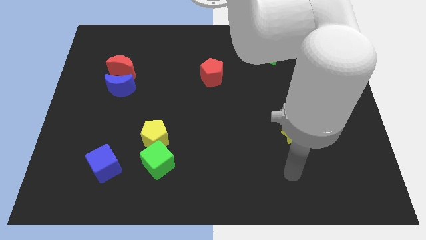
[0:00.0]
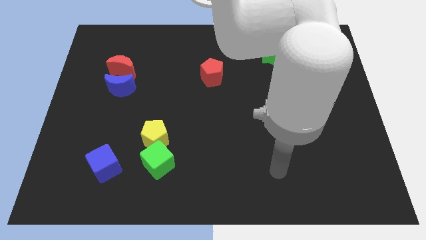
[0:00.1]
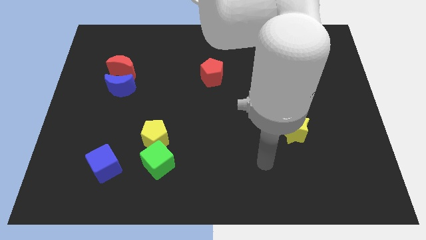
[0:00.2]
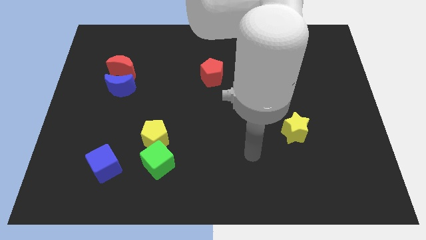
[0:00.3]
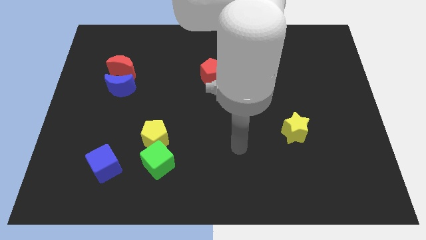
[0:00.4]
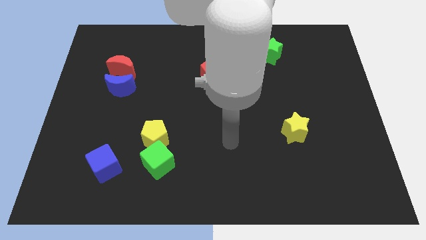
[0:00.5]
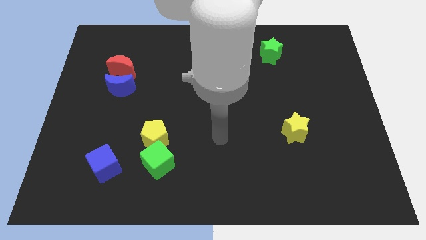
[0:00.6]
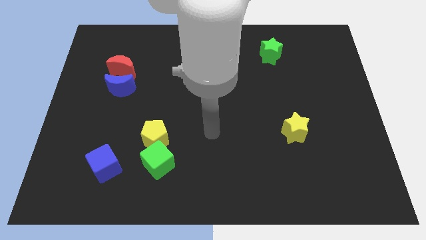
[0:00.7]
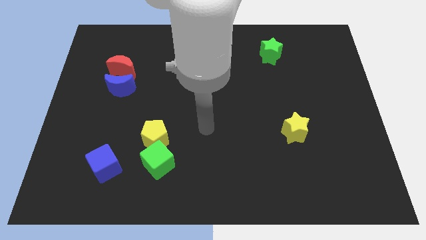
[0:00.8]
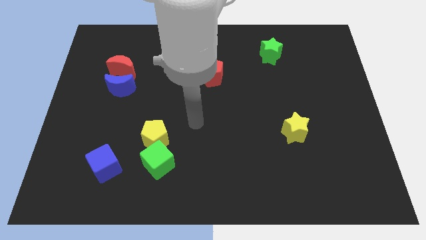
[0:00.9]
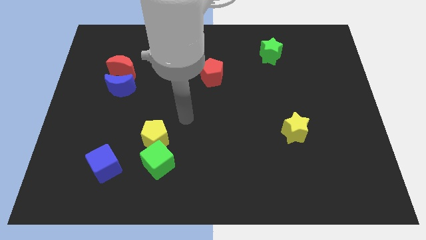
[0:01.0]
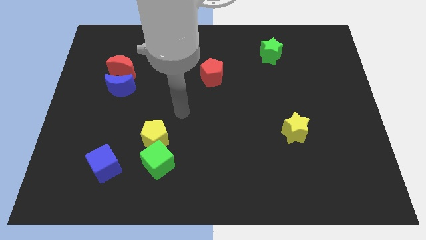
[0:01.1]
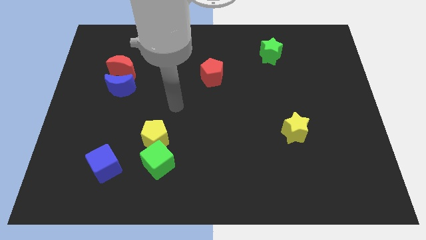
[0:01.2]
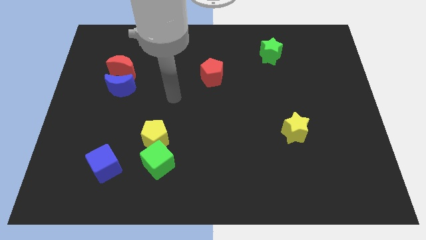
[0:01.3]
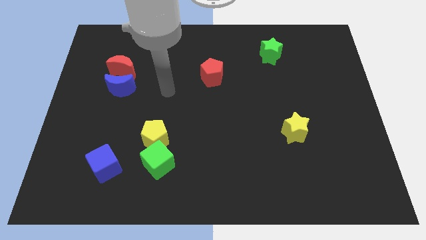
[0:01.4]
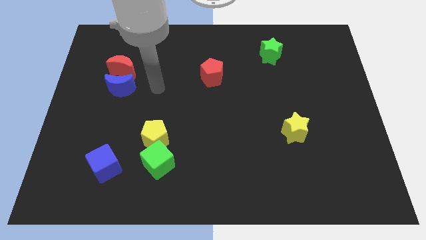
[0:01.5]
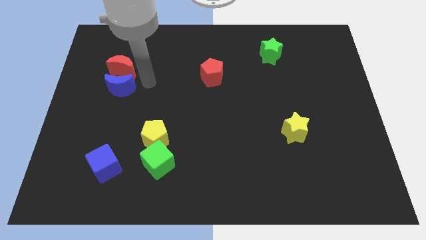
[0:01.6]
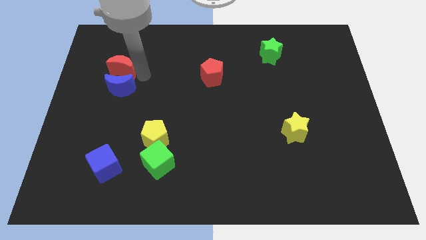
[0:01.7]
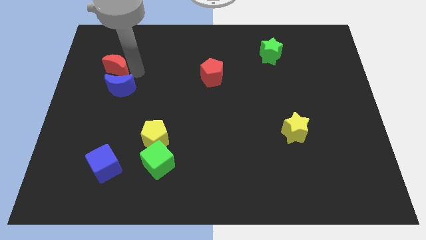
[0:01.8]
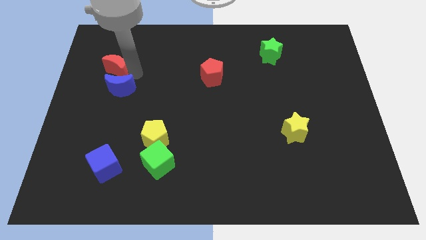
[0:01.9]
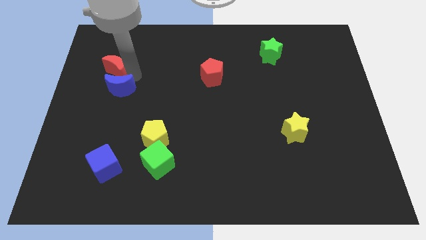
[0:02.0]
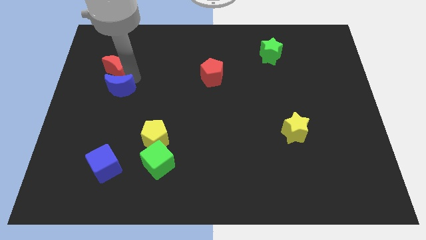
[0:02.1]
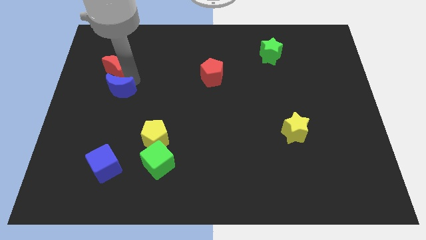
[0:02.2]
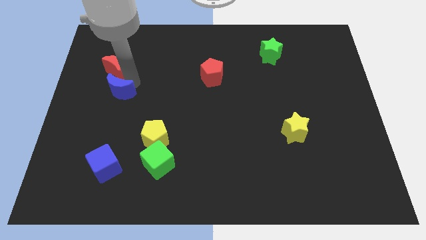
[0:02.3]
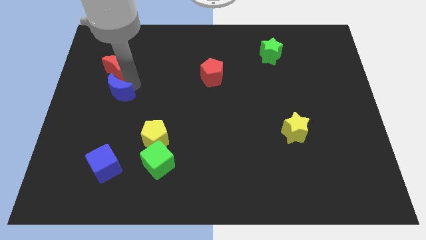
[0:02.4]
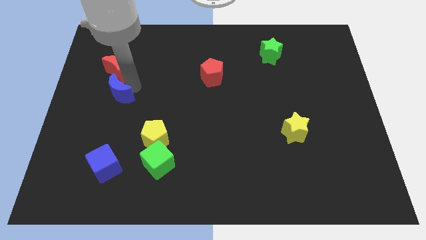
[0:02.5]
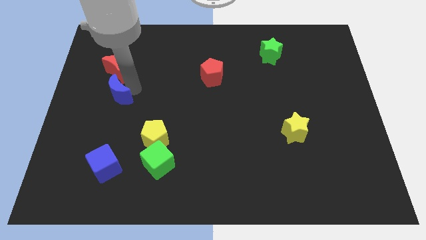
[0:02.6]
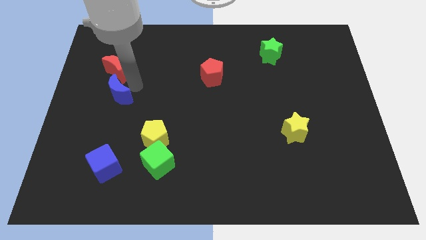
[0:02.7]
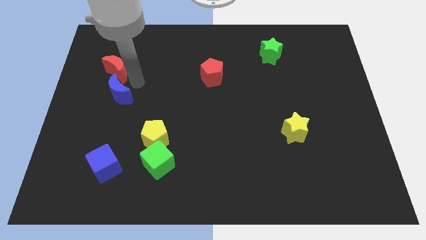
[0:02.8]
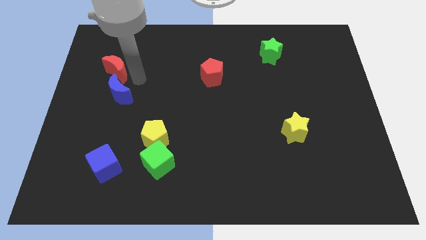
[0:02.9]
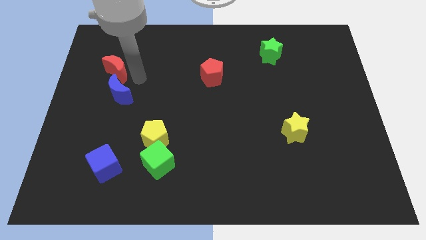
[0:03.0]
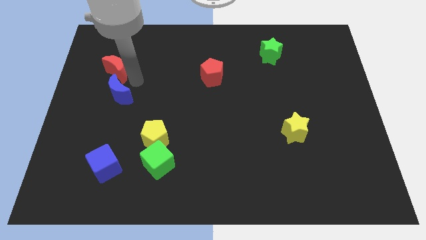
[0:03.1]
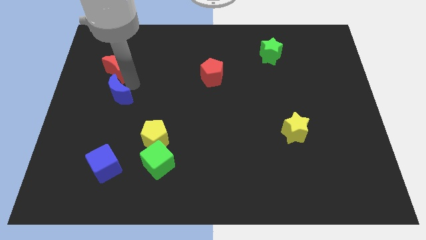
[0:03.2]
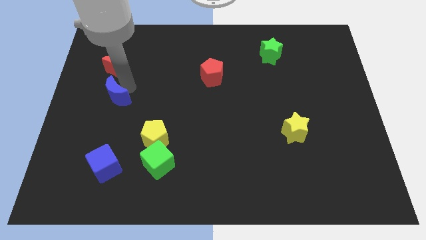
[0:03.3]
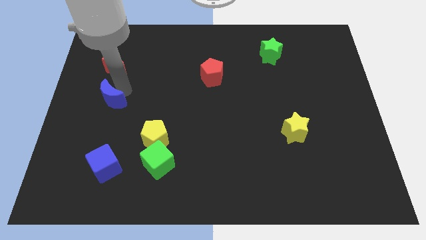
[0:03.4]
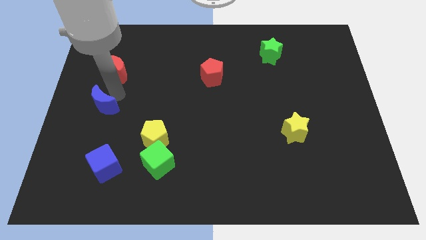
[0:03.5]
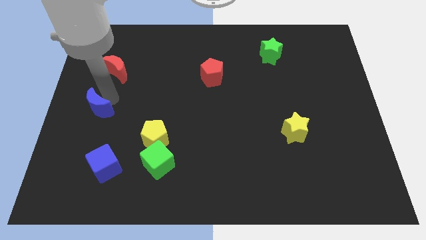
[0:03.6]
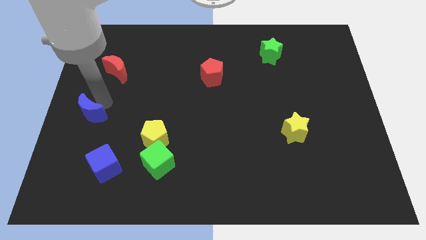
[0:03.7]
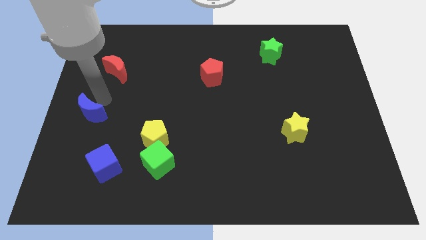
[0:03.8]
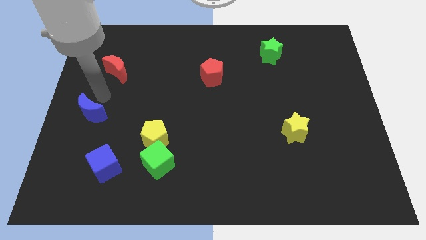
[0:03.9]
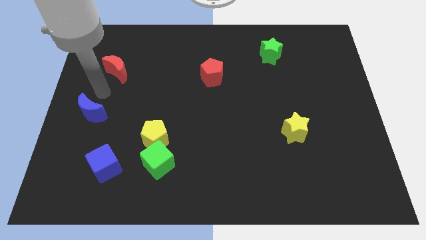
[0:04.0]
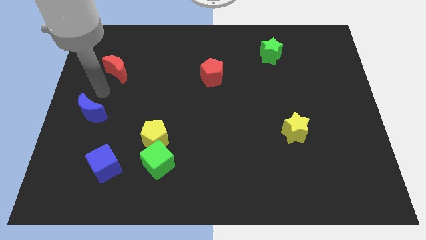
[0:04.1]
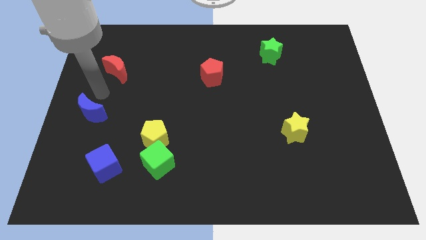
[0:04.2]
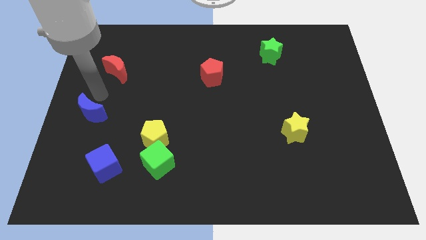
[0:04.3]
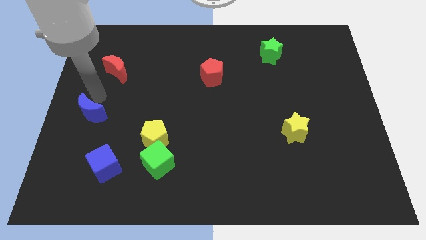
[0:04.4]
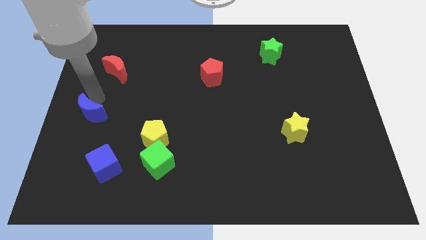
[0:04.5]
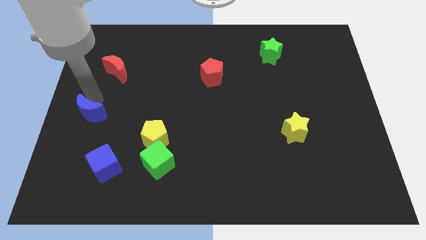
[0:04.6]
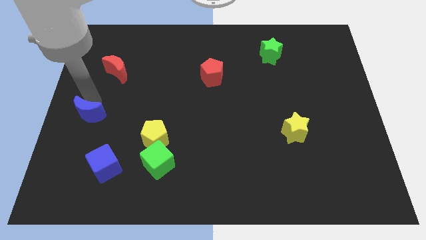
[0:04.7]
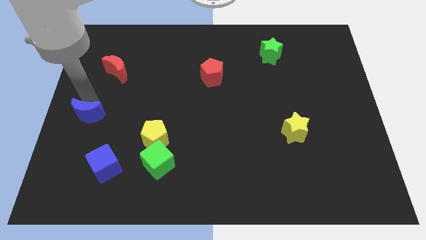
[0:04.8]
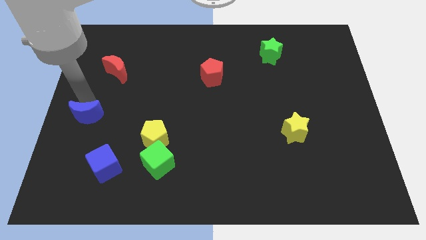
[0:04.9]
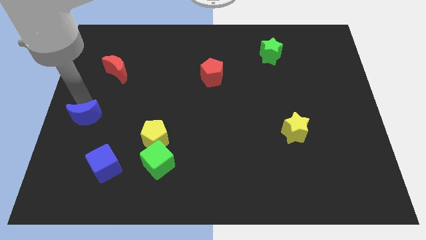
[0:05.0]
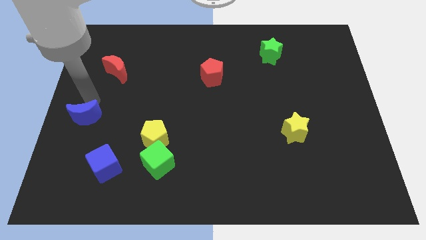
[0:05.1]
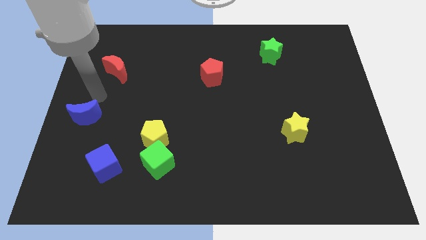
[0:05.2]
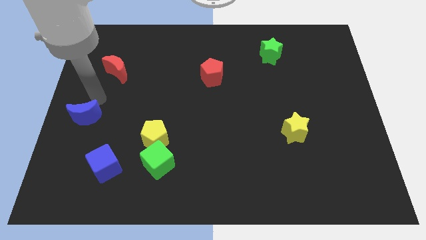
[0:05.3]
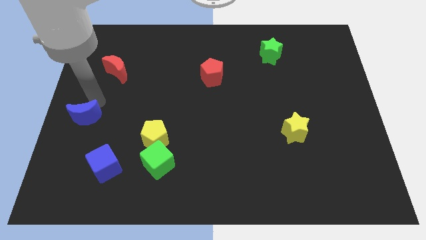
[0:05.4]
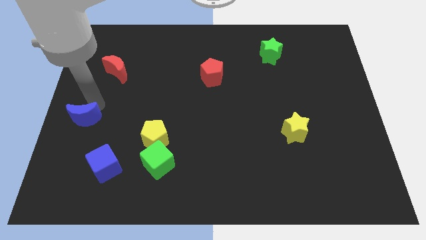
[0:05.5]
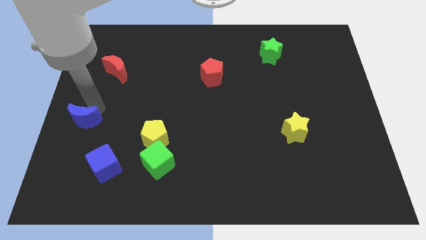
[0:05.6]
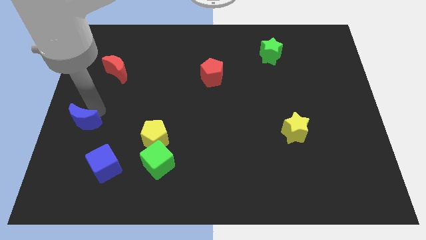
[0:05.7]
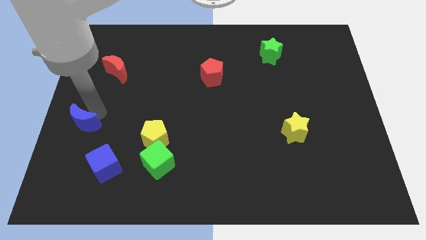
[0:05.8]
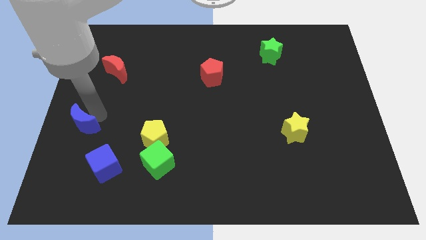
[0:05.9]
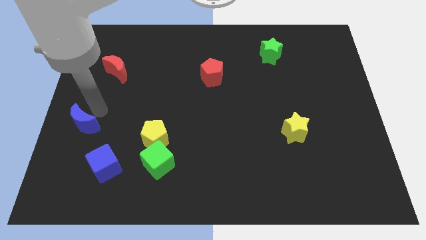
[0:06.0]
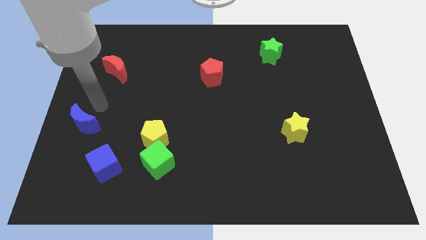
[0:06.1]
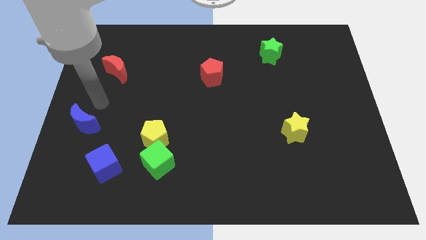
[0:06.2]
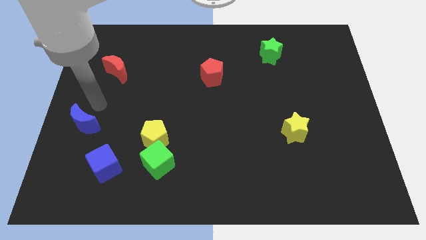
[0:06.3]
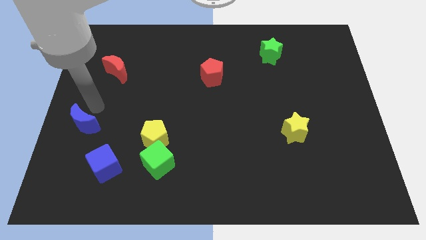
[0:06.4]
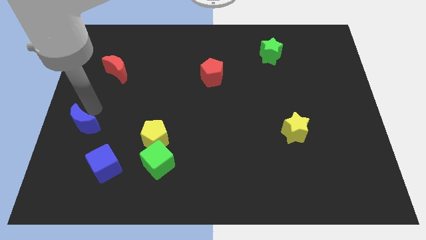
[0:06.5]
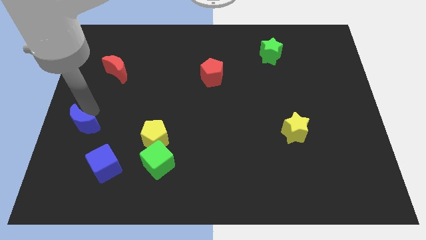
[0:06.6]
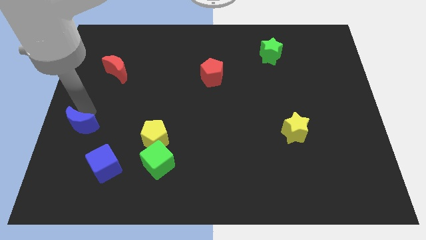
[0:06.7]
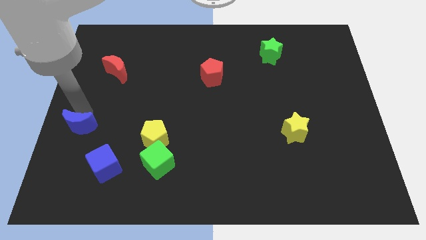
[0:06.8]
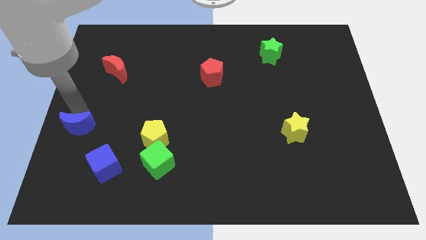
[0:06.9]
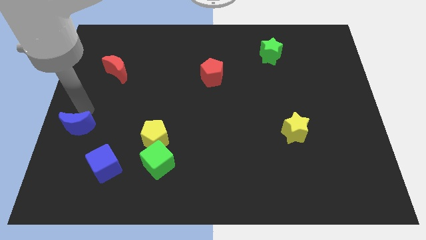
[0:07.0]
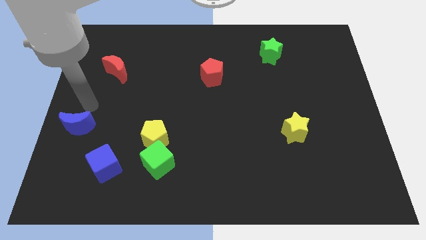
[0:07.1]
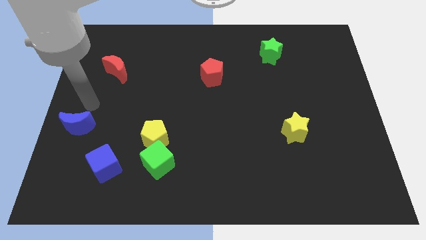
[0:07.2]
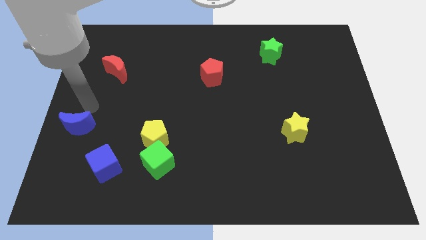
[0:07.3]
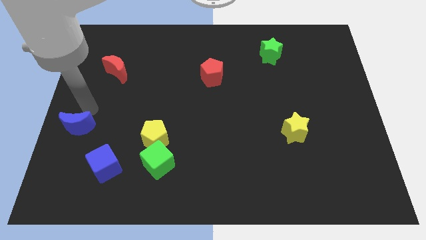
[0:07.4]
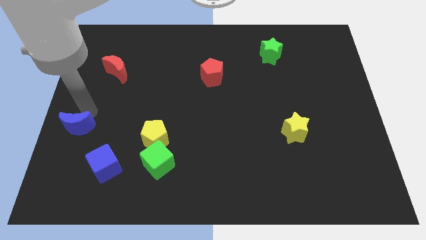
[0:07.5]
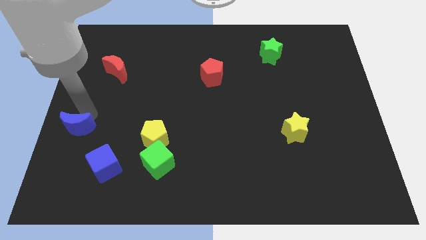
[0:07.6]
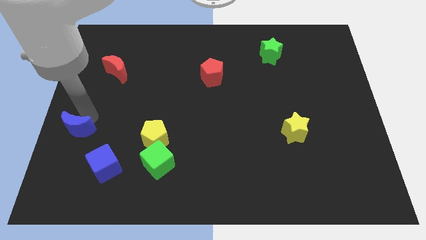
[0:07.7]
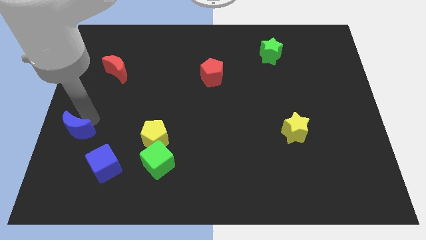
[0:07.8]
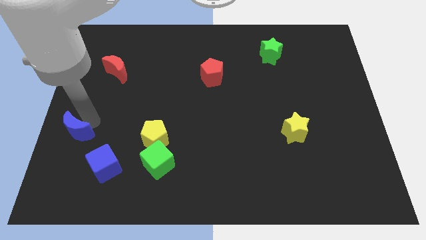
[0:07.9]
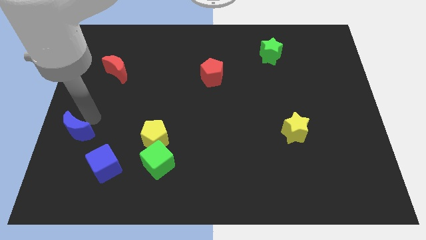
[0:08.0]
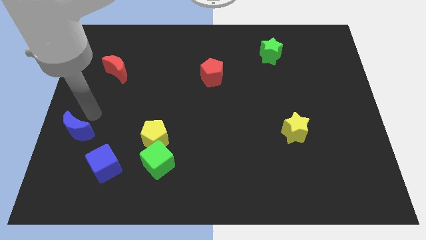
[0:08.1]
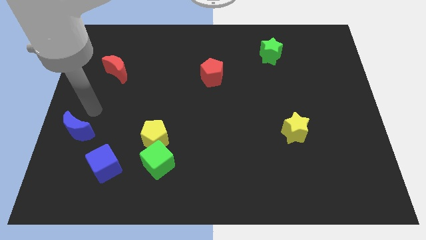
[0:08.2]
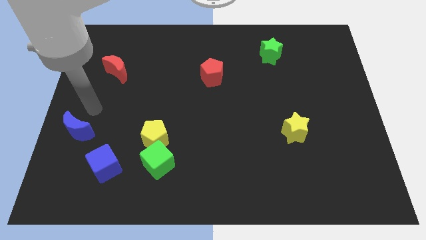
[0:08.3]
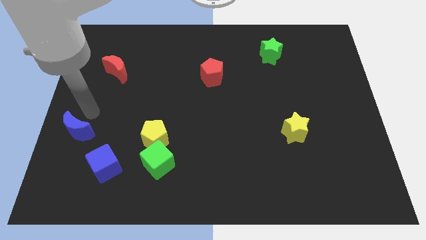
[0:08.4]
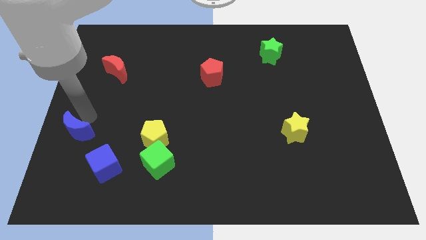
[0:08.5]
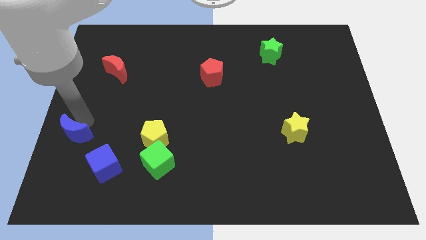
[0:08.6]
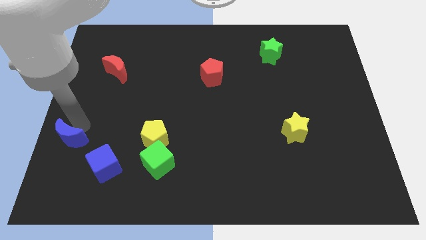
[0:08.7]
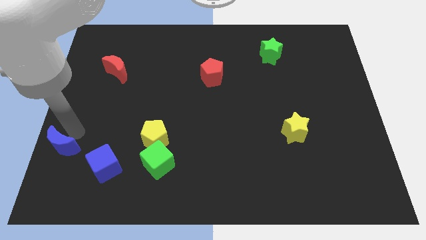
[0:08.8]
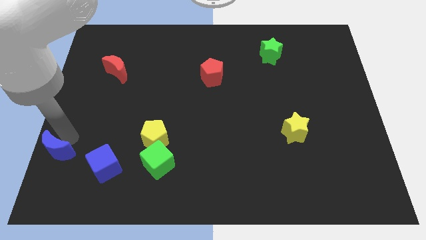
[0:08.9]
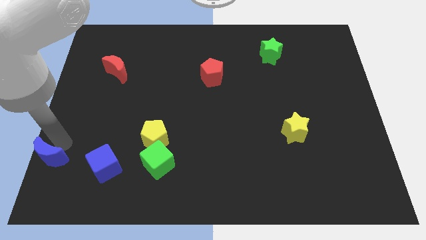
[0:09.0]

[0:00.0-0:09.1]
put the blue moon to the lower left corner
